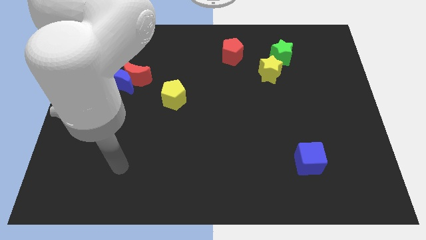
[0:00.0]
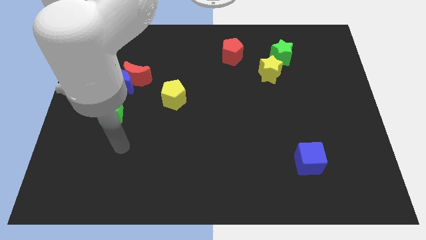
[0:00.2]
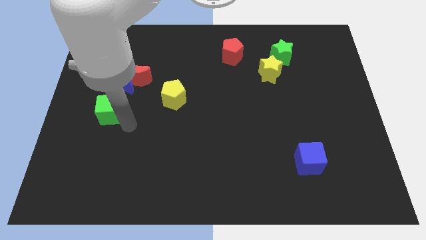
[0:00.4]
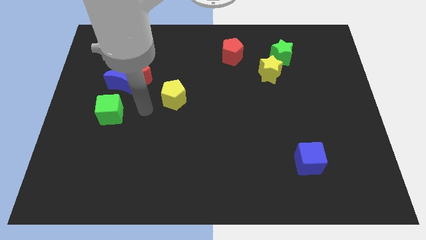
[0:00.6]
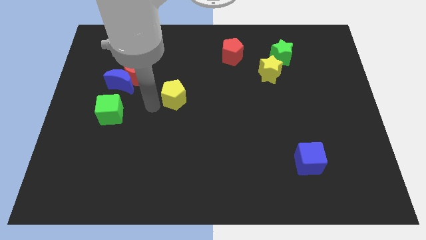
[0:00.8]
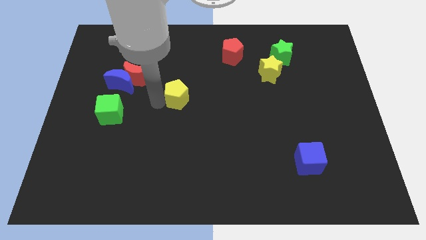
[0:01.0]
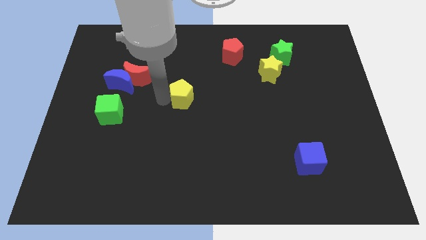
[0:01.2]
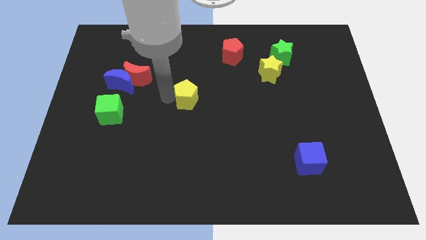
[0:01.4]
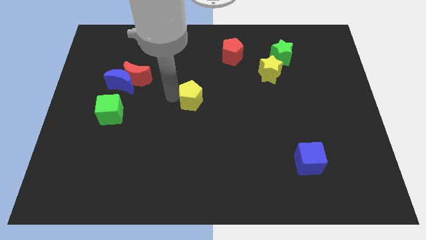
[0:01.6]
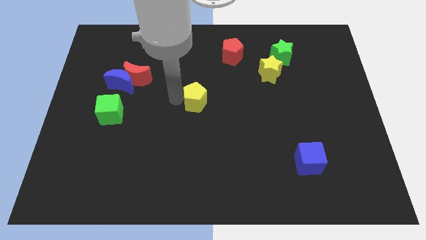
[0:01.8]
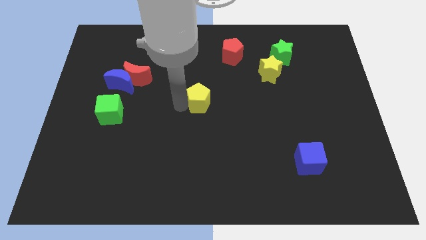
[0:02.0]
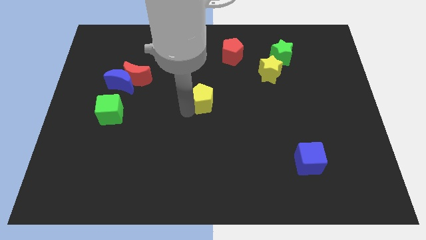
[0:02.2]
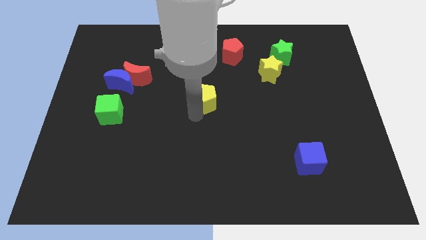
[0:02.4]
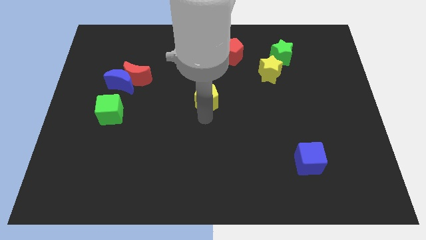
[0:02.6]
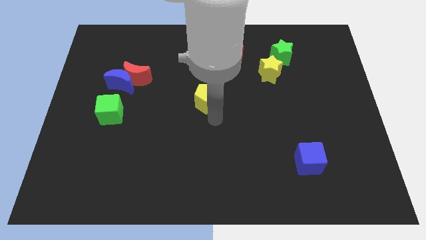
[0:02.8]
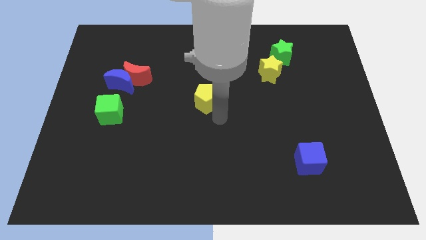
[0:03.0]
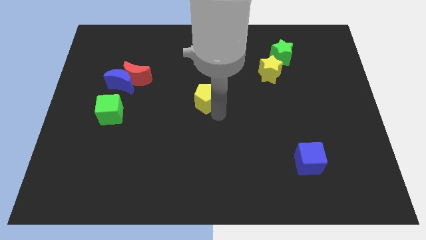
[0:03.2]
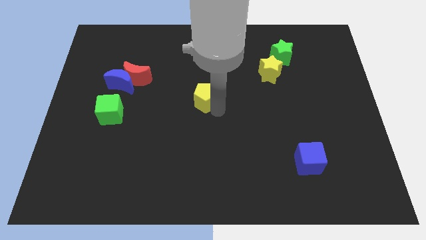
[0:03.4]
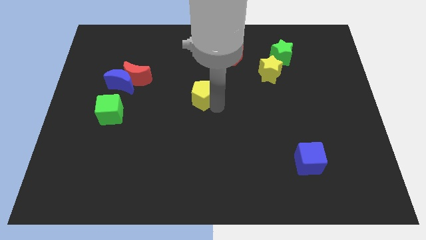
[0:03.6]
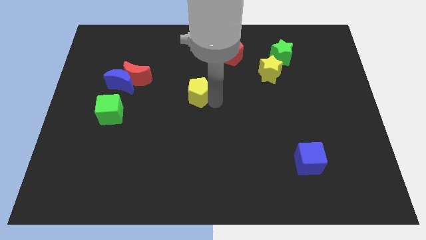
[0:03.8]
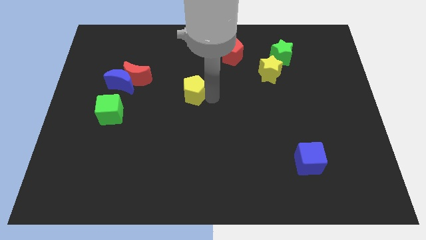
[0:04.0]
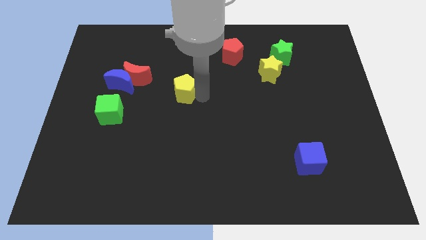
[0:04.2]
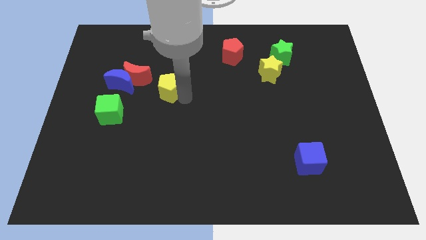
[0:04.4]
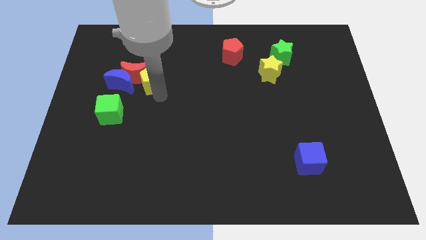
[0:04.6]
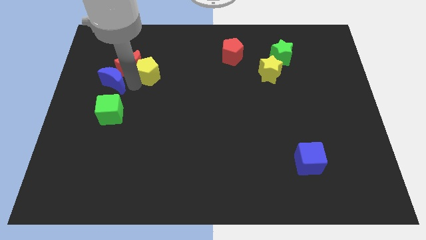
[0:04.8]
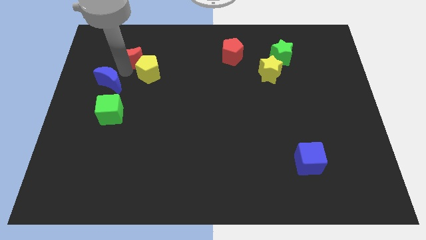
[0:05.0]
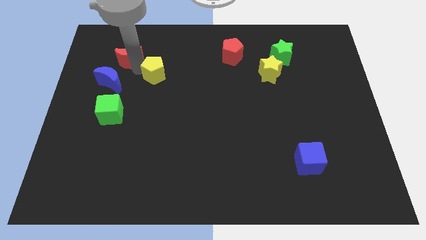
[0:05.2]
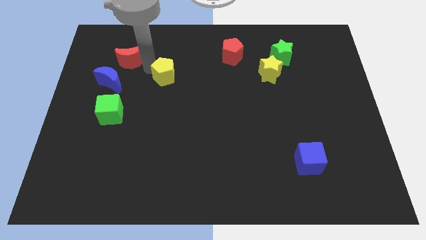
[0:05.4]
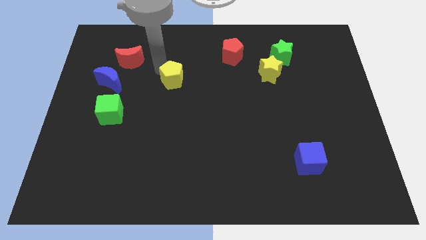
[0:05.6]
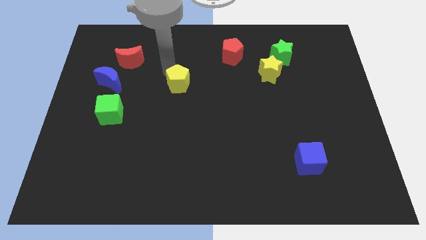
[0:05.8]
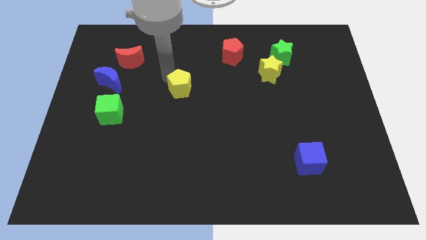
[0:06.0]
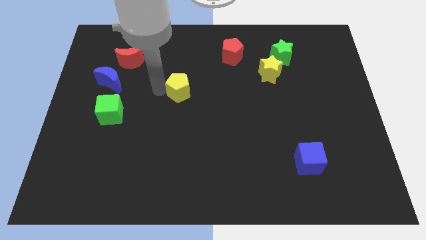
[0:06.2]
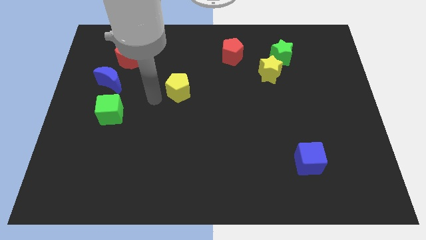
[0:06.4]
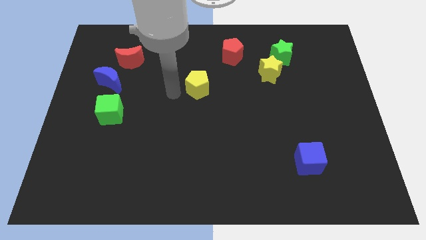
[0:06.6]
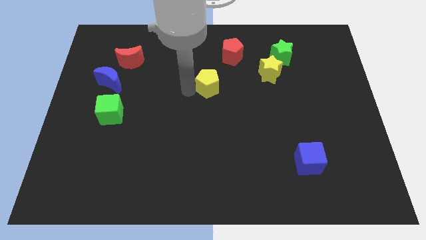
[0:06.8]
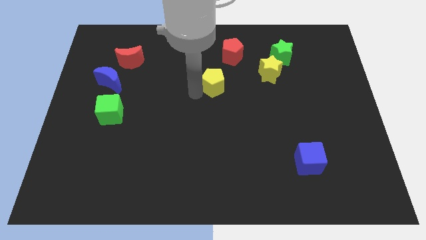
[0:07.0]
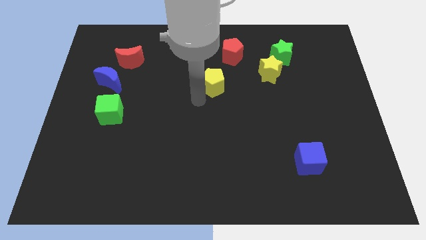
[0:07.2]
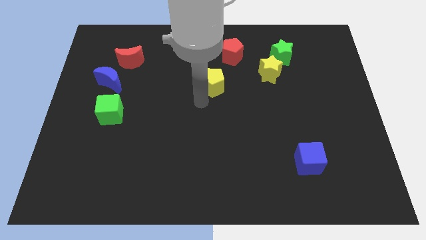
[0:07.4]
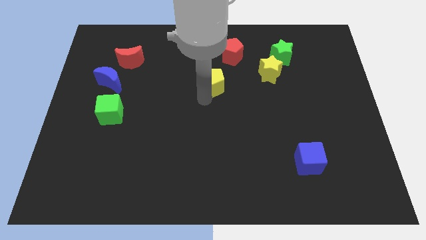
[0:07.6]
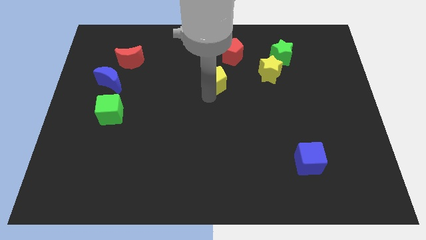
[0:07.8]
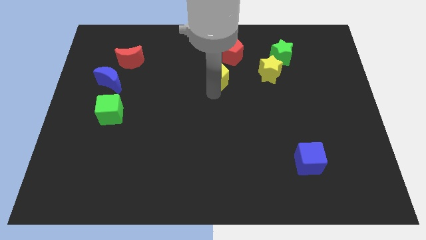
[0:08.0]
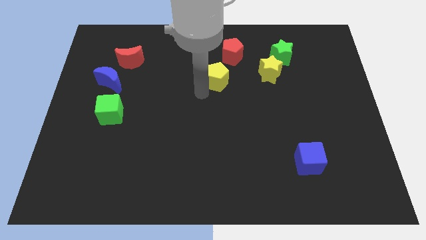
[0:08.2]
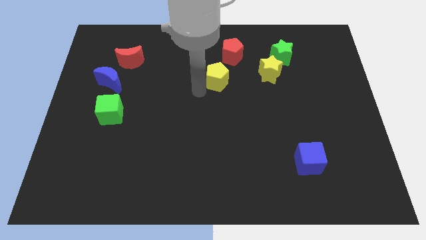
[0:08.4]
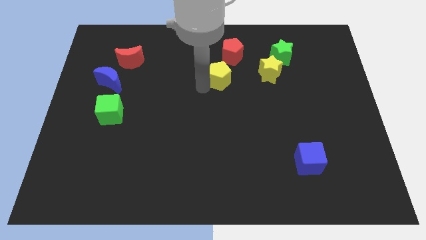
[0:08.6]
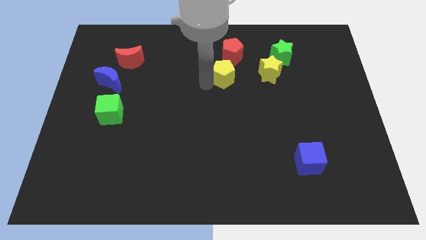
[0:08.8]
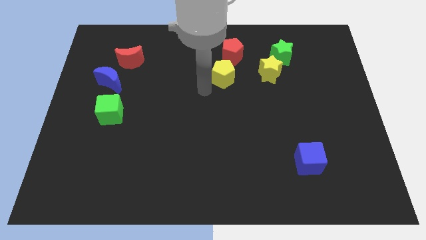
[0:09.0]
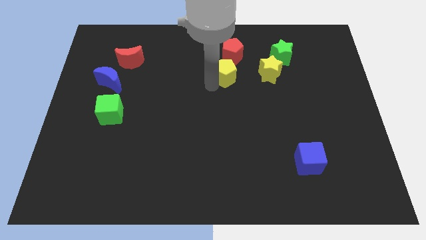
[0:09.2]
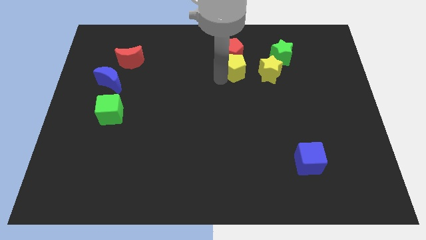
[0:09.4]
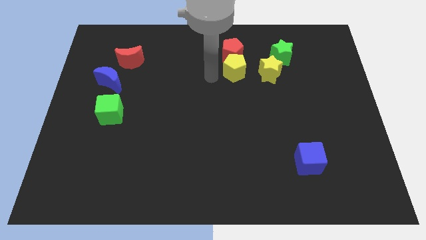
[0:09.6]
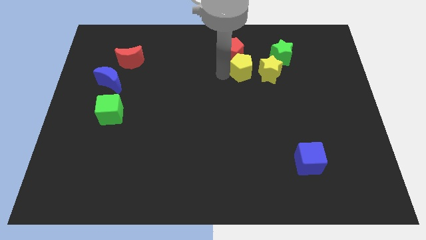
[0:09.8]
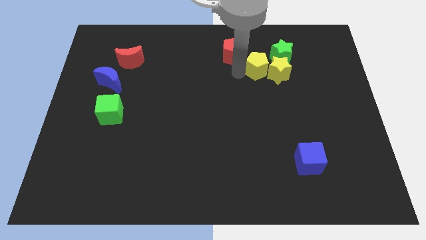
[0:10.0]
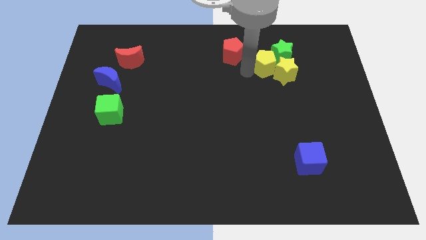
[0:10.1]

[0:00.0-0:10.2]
push the yellow pentagon to the green star

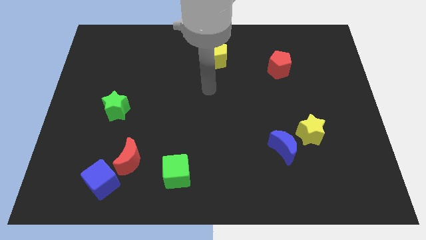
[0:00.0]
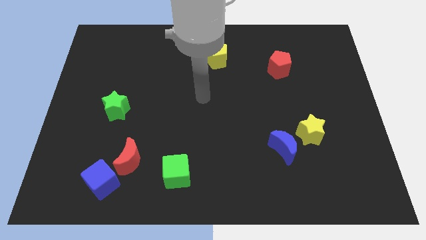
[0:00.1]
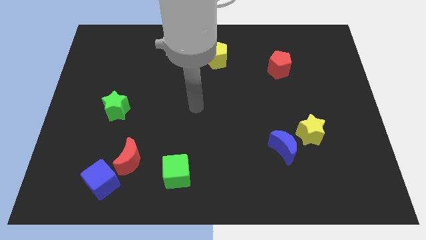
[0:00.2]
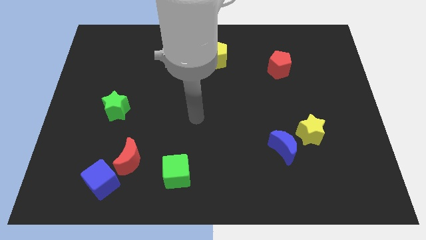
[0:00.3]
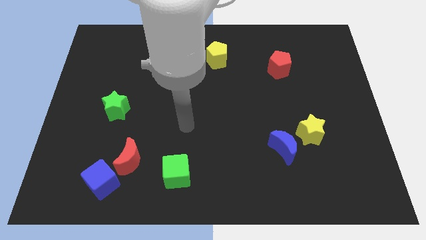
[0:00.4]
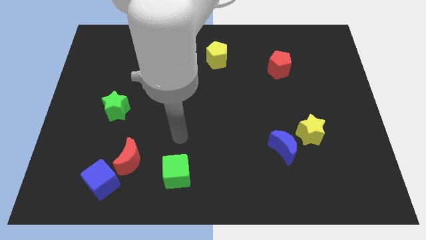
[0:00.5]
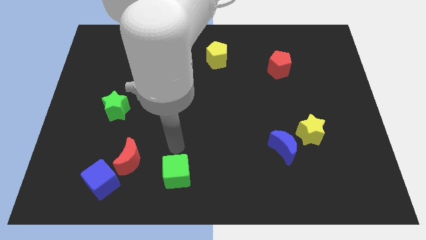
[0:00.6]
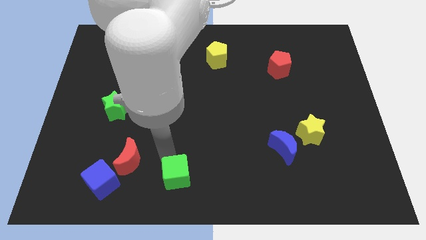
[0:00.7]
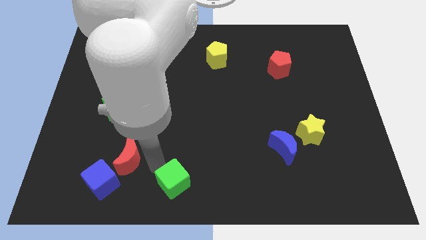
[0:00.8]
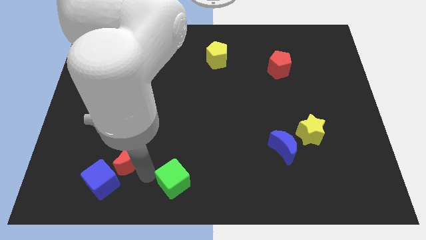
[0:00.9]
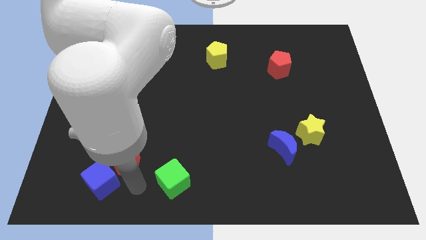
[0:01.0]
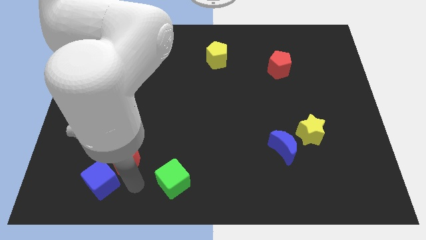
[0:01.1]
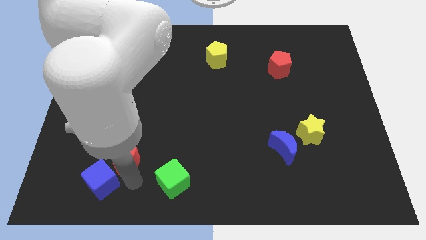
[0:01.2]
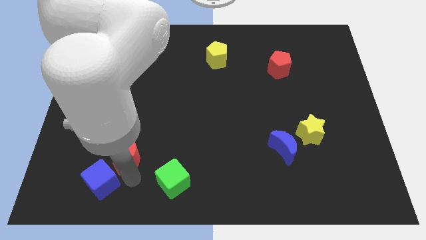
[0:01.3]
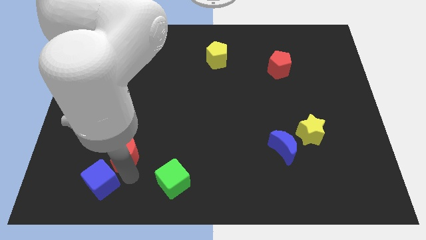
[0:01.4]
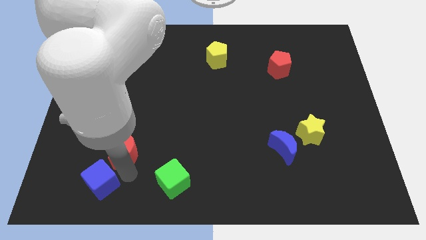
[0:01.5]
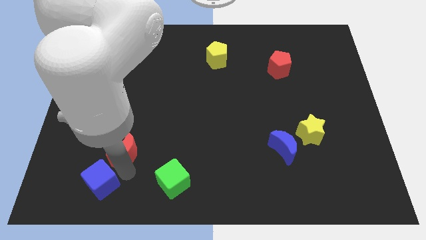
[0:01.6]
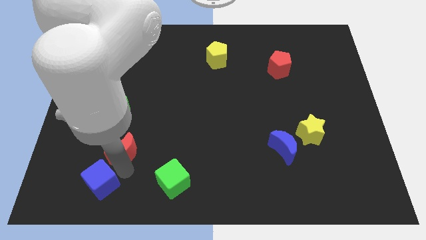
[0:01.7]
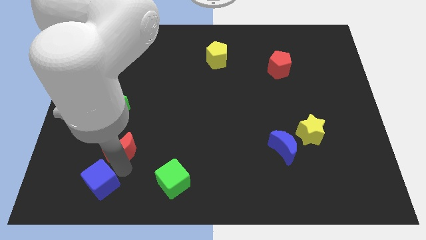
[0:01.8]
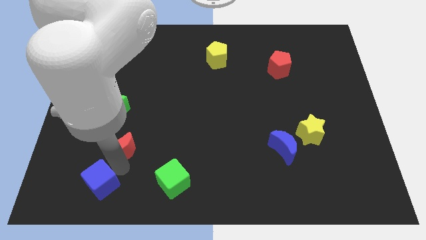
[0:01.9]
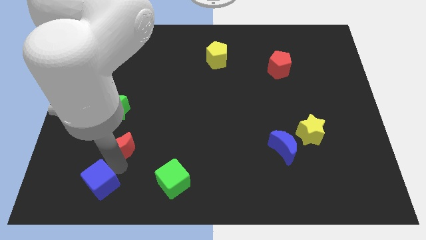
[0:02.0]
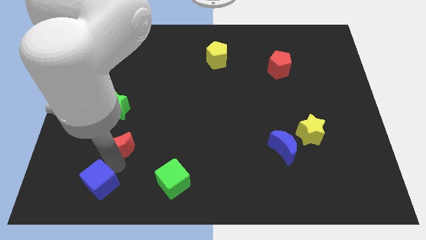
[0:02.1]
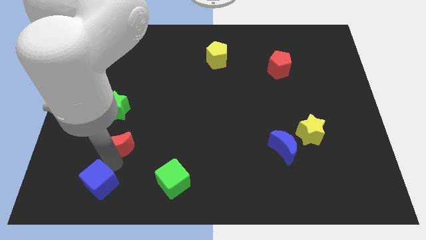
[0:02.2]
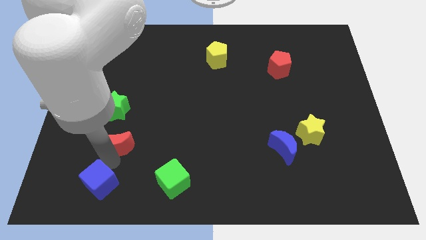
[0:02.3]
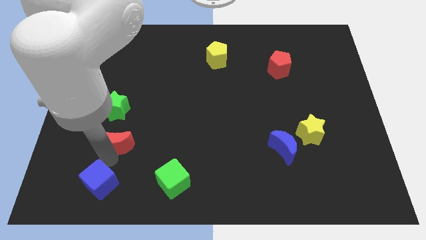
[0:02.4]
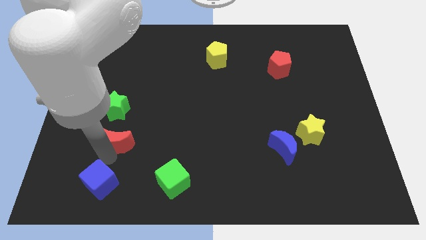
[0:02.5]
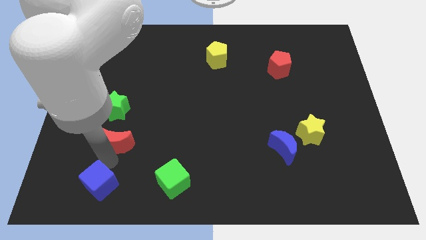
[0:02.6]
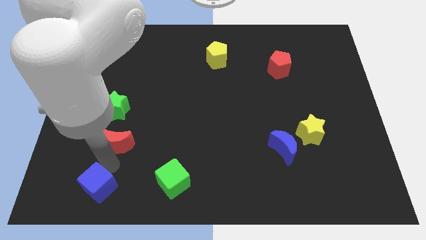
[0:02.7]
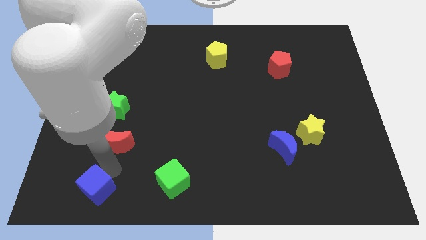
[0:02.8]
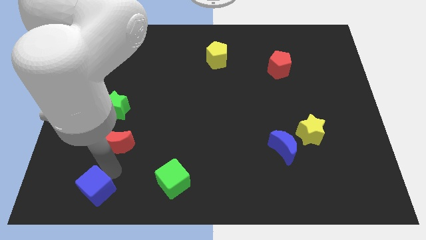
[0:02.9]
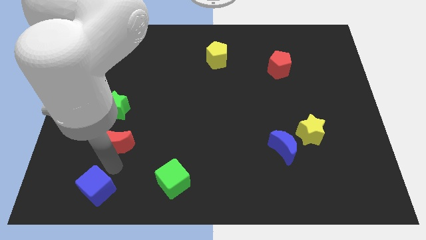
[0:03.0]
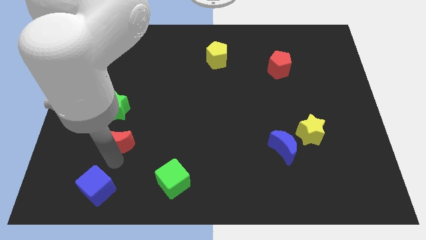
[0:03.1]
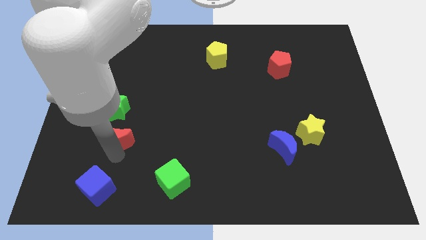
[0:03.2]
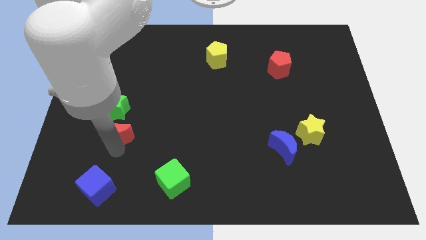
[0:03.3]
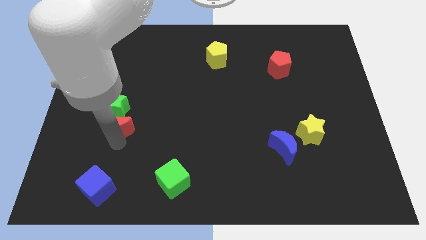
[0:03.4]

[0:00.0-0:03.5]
put the red moon next to the green star
